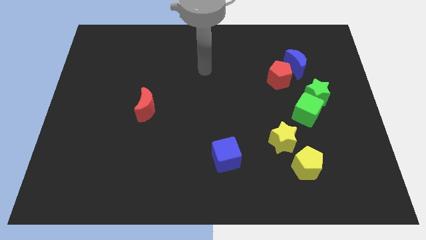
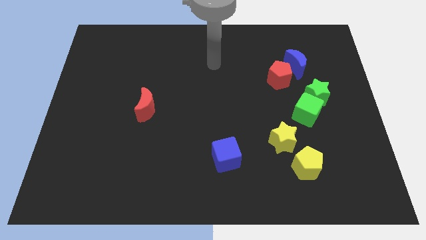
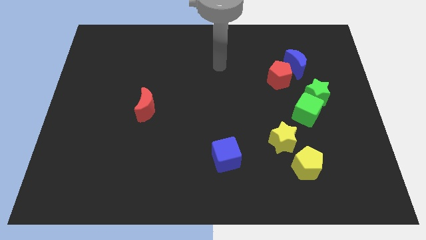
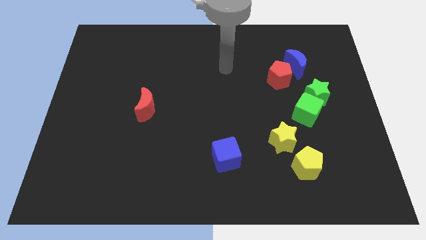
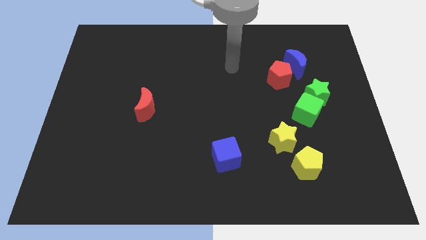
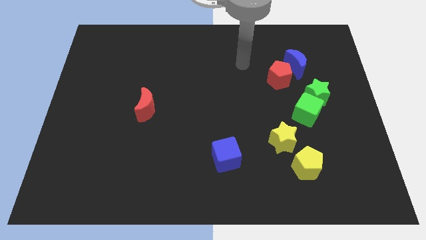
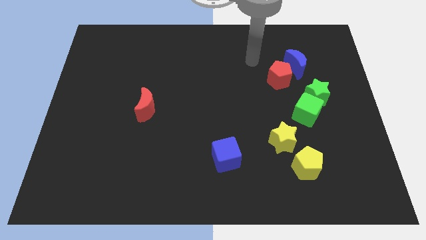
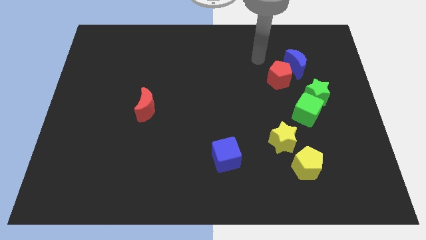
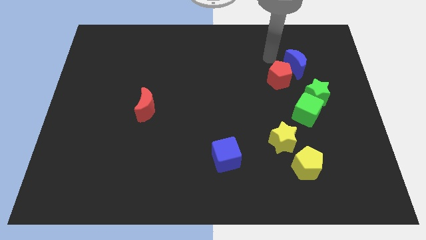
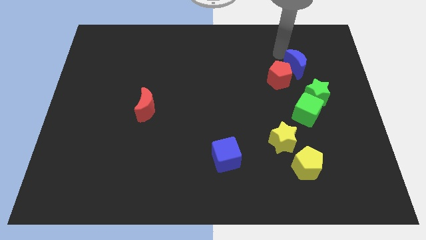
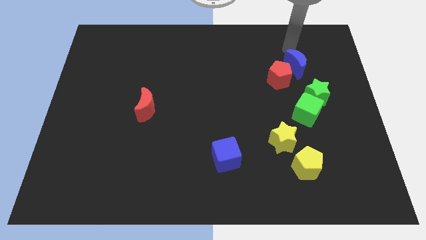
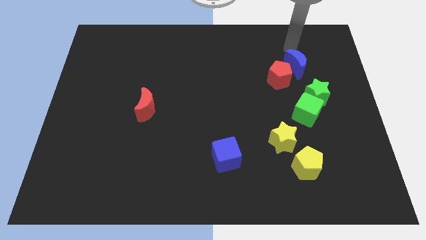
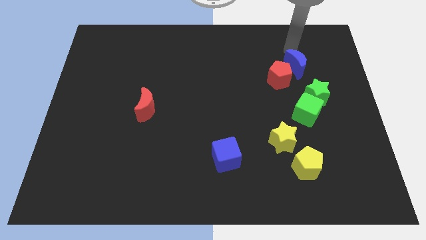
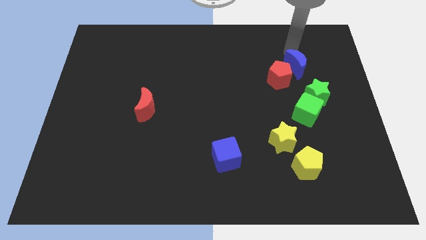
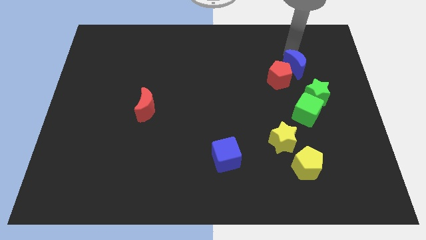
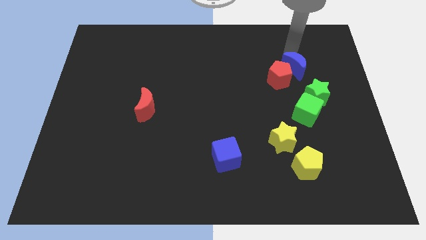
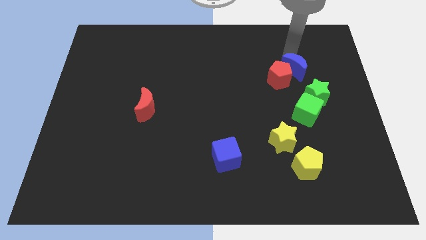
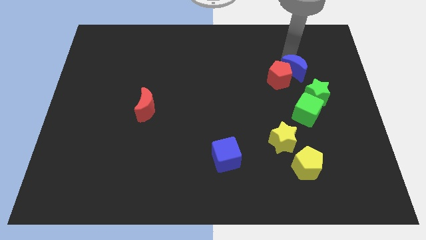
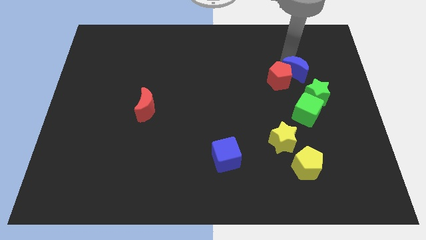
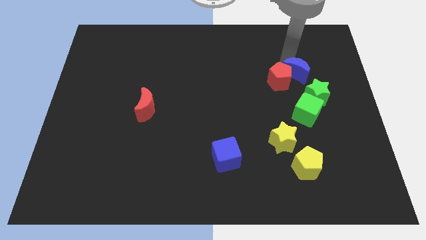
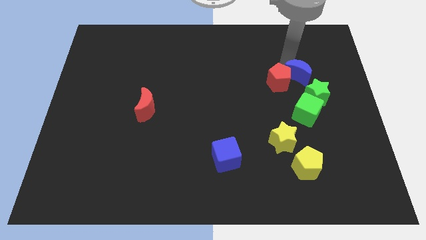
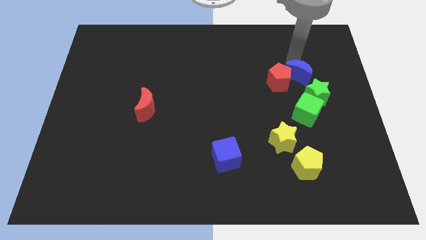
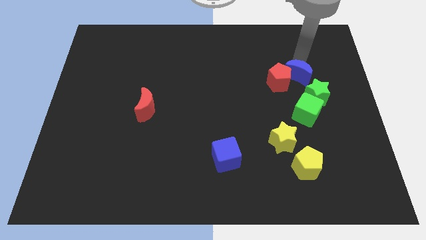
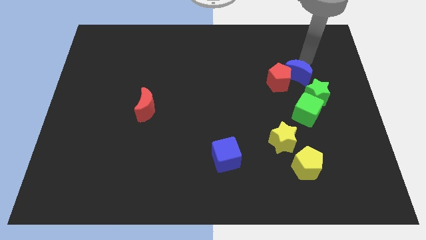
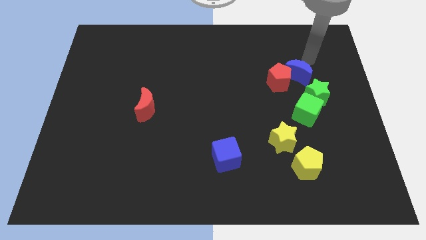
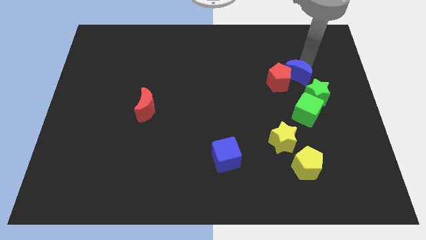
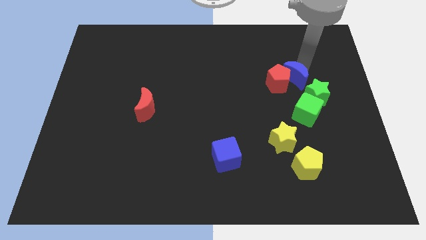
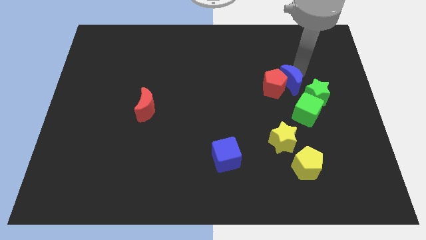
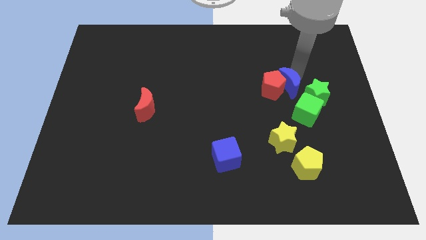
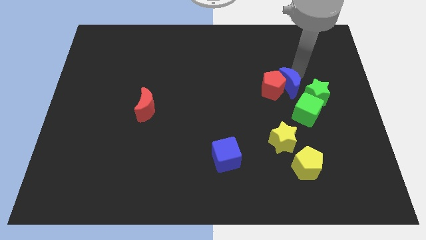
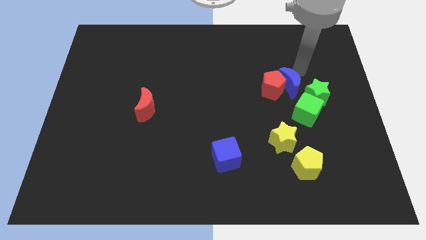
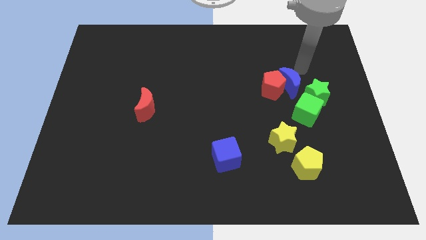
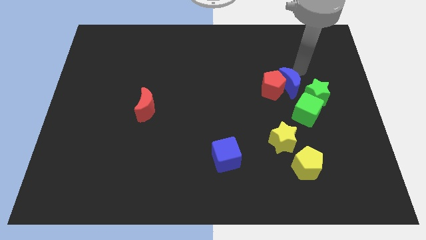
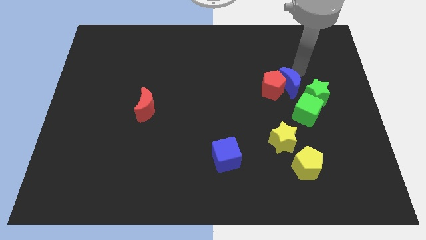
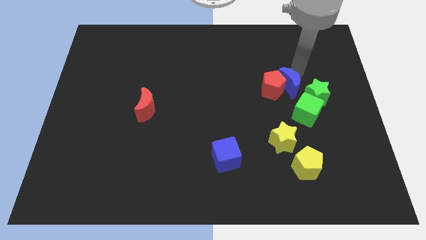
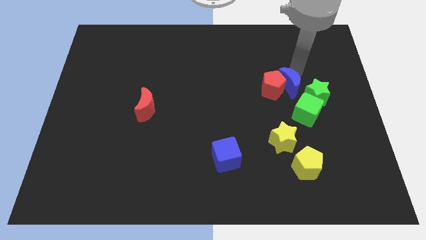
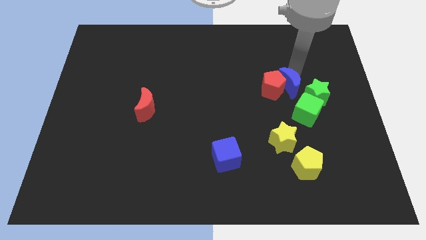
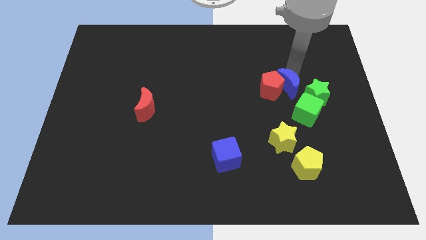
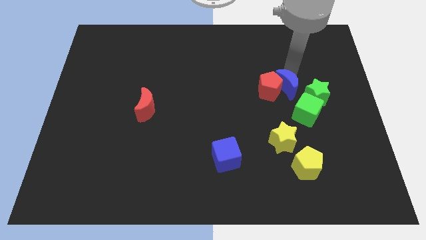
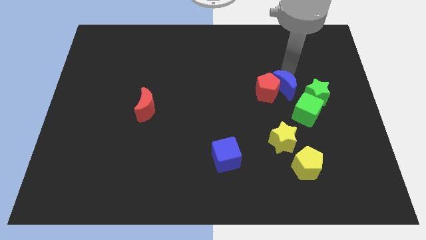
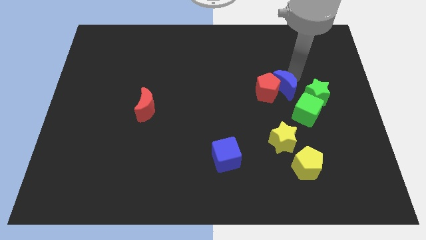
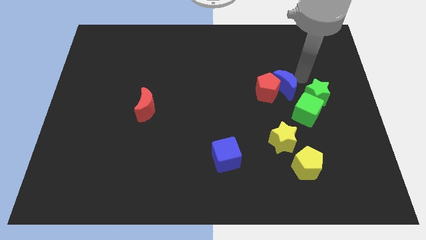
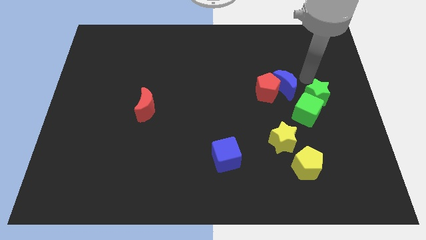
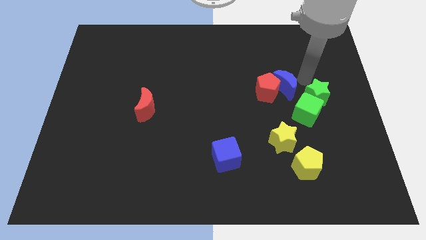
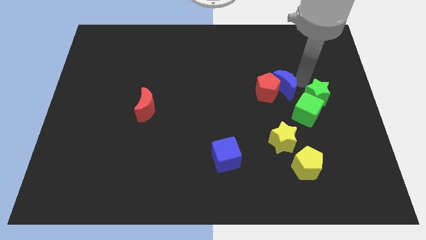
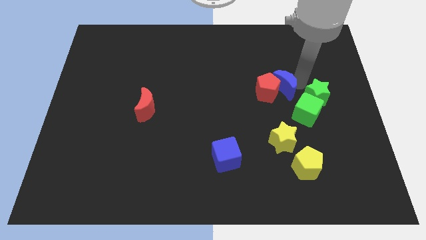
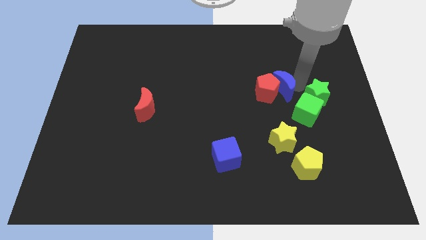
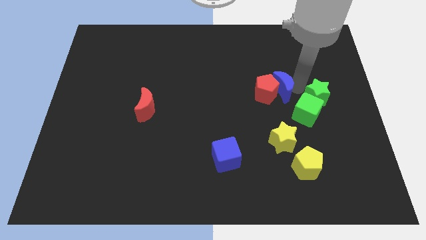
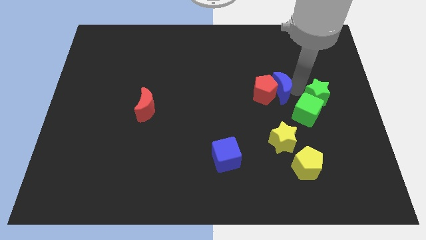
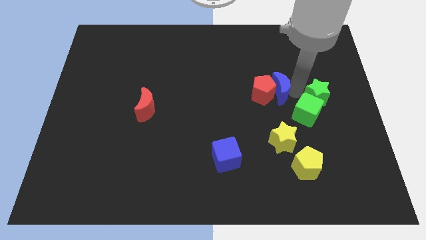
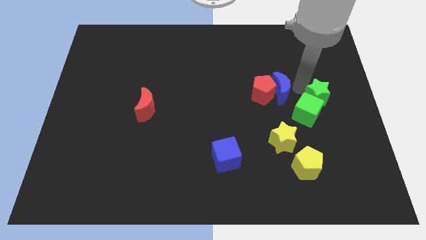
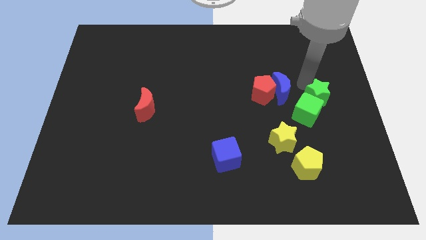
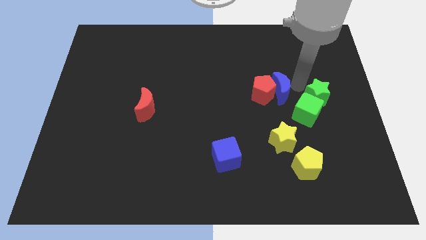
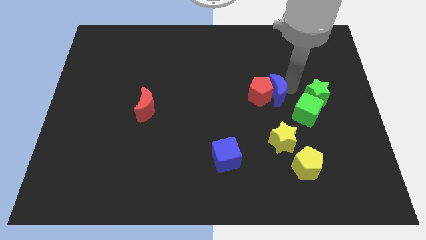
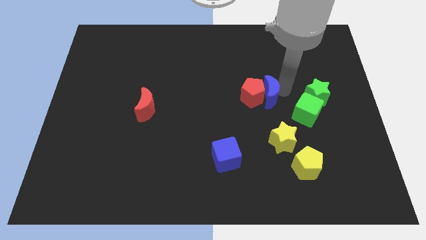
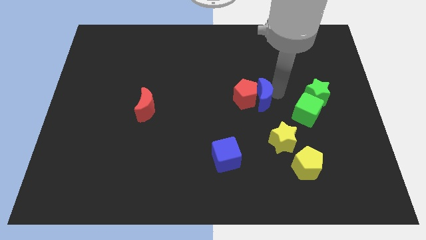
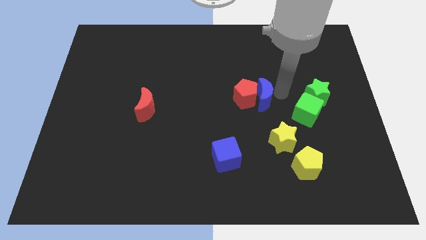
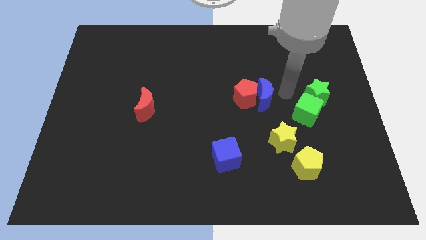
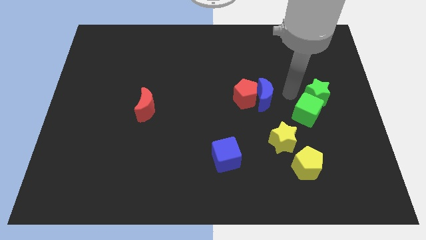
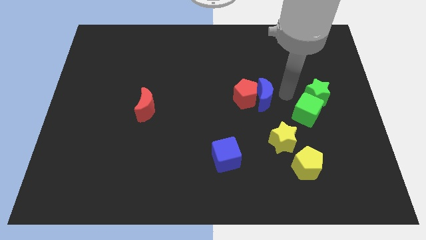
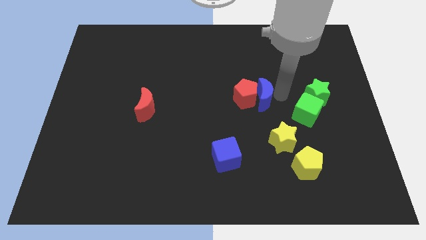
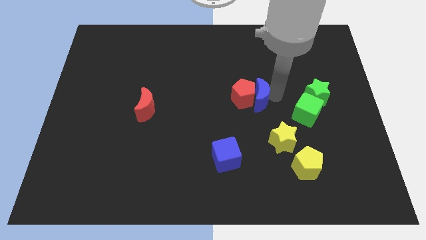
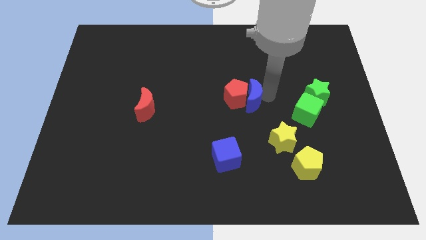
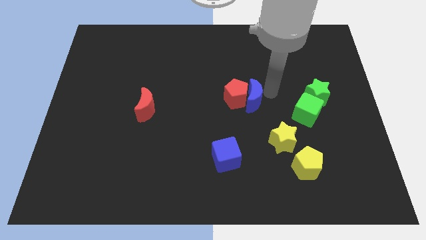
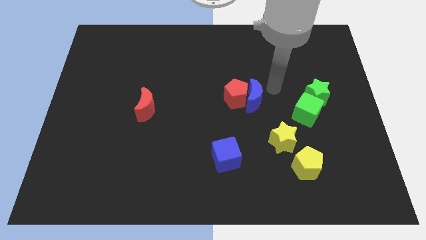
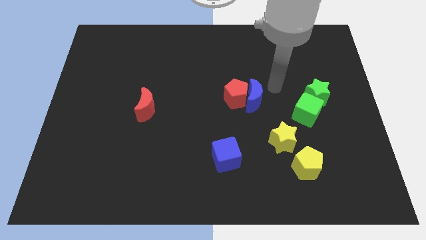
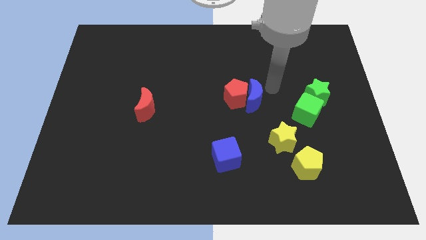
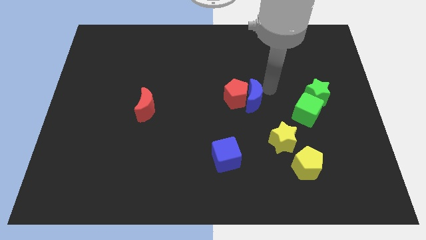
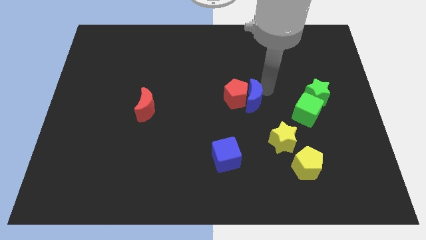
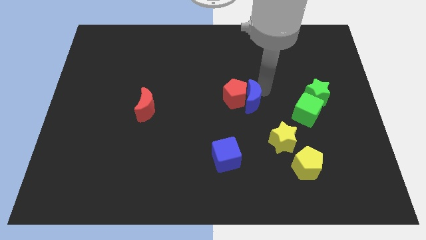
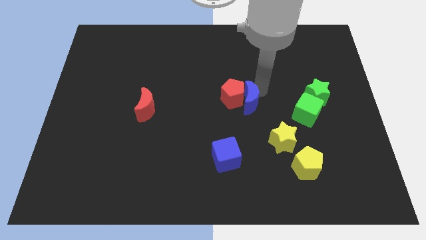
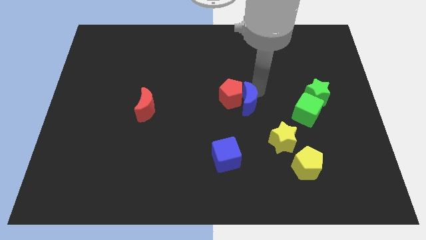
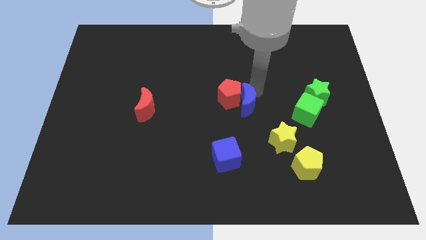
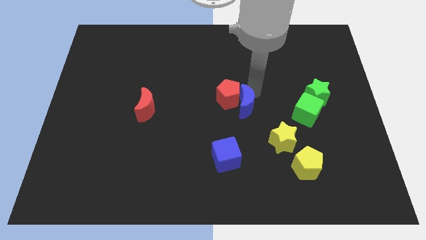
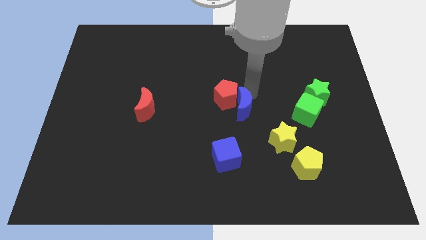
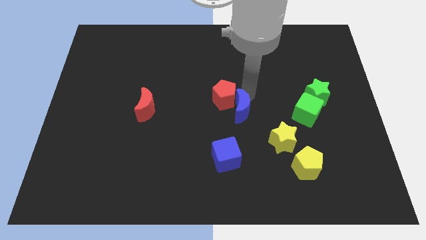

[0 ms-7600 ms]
move the blue moon downwards and left

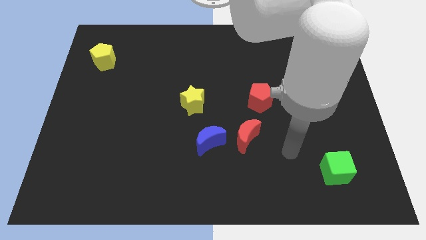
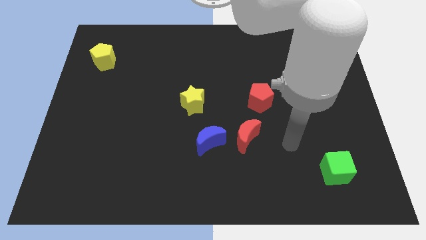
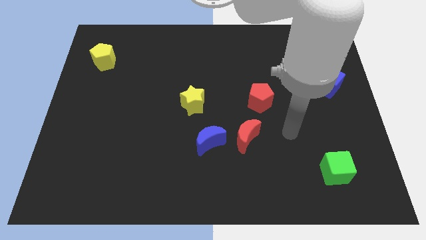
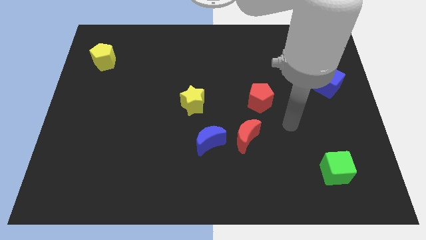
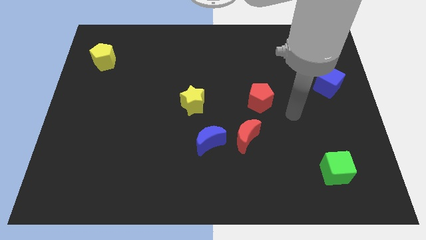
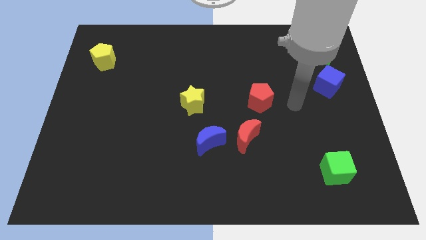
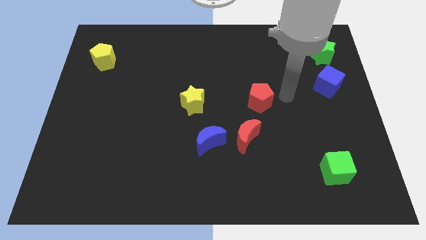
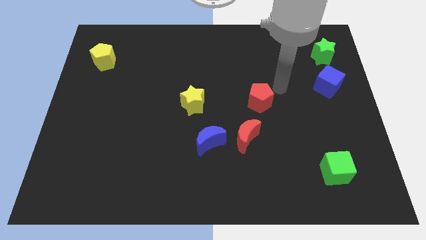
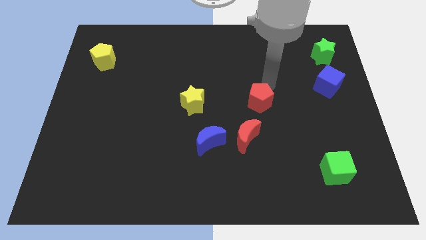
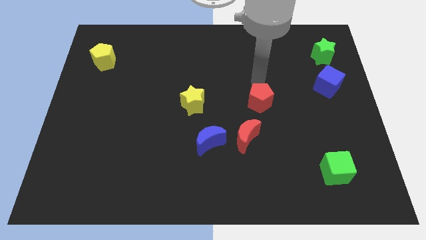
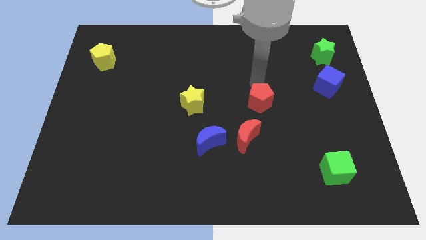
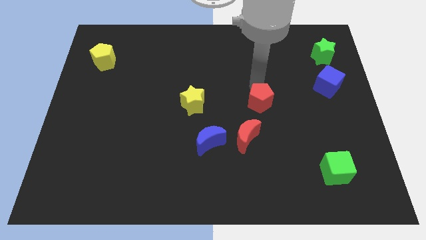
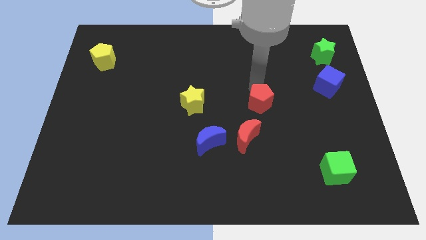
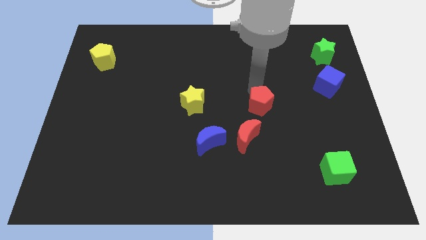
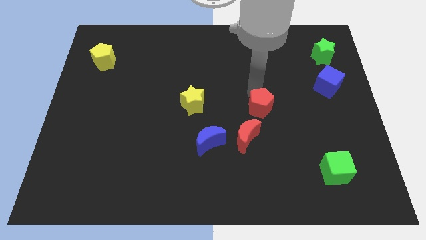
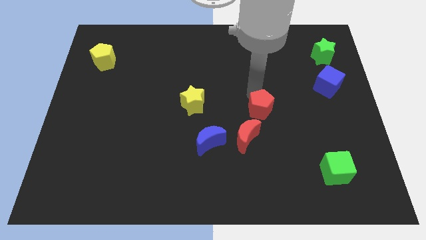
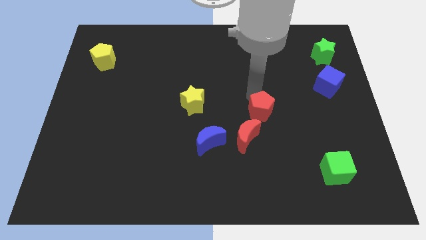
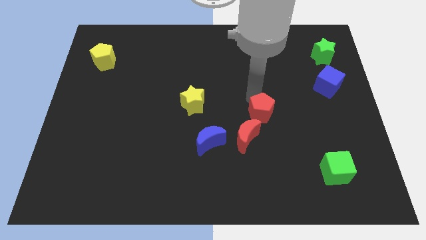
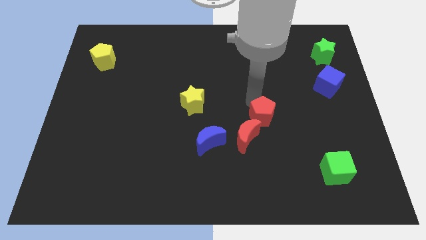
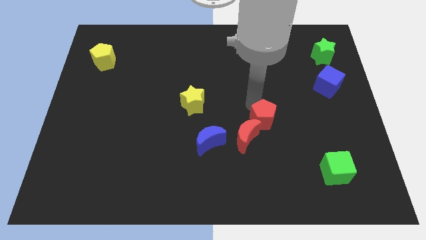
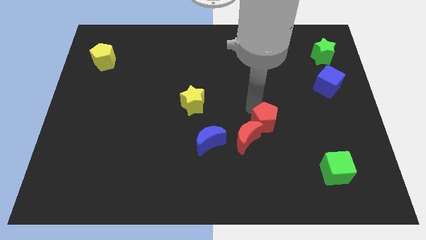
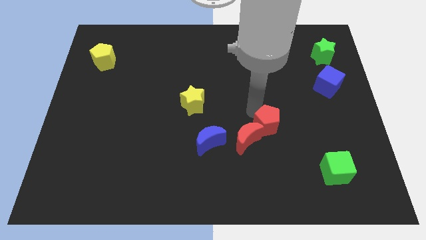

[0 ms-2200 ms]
slightly move the red pentagon downwards
